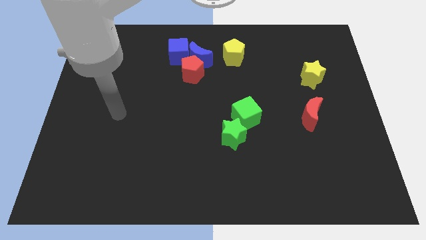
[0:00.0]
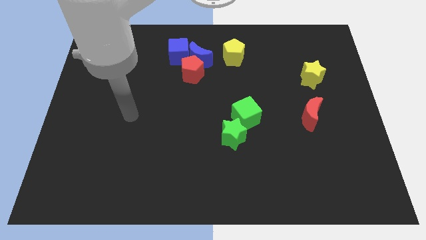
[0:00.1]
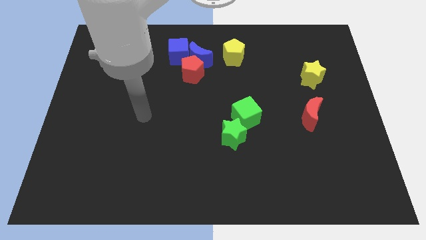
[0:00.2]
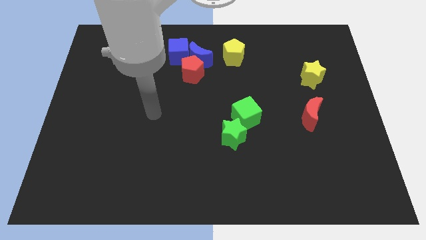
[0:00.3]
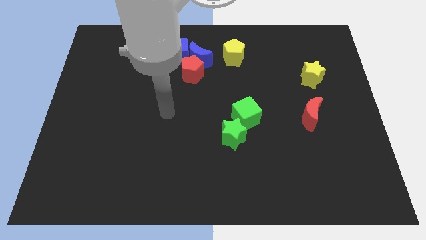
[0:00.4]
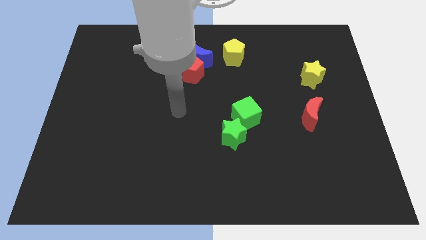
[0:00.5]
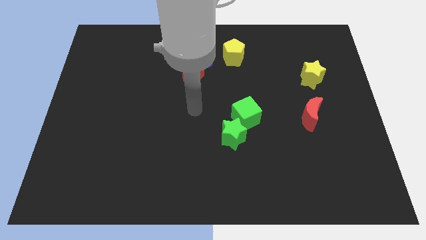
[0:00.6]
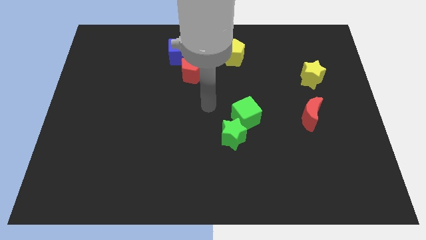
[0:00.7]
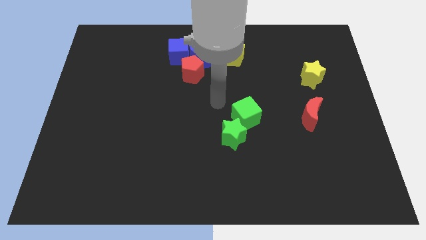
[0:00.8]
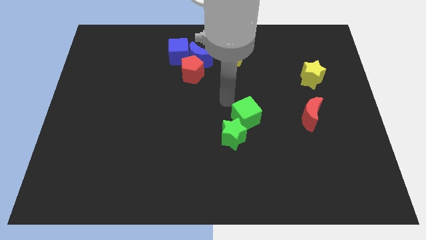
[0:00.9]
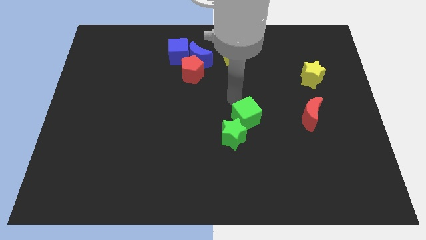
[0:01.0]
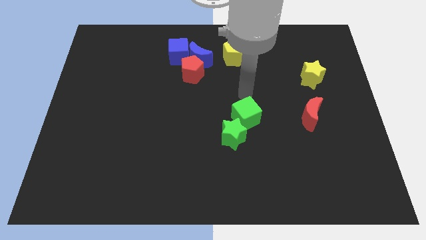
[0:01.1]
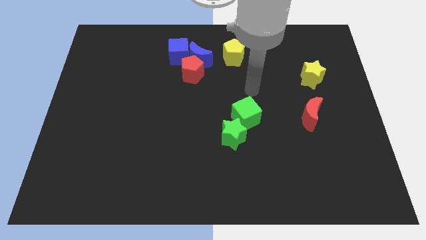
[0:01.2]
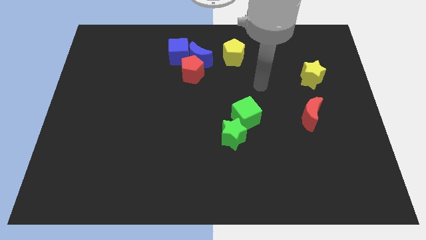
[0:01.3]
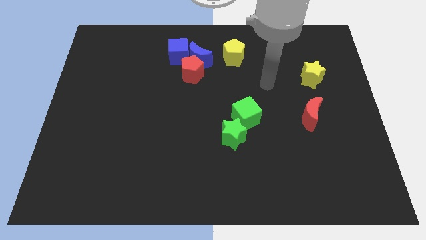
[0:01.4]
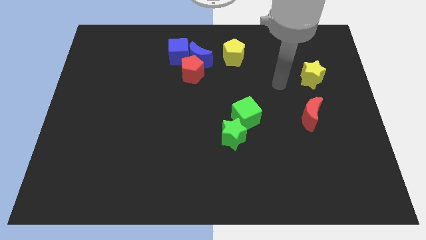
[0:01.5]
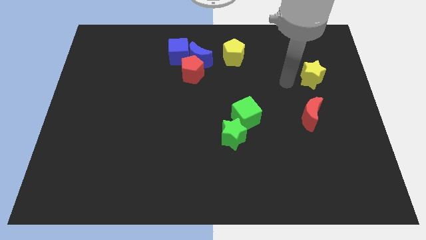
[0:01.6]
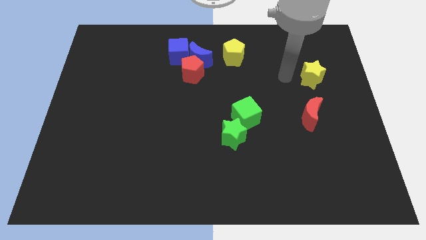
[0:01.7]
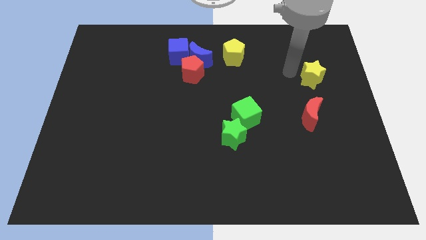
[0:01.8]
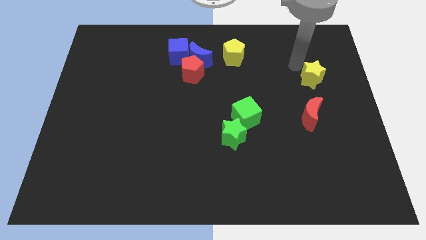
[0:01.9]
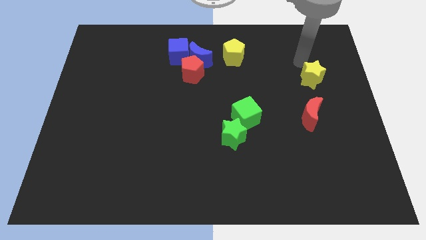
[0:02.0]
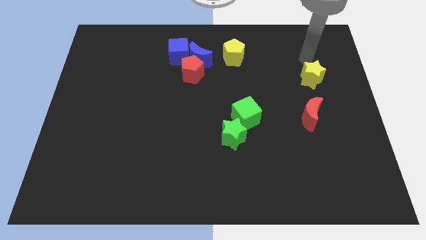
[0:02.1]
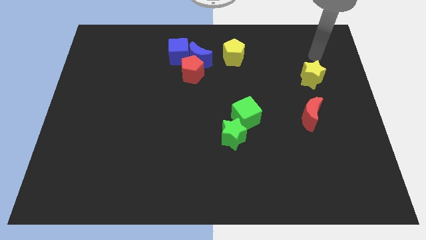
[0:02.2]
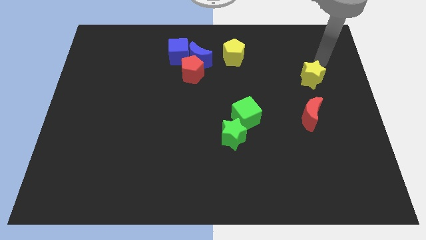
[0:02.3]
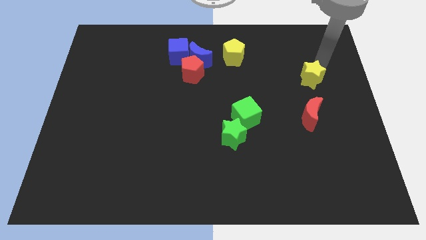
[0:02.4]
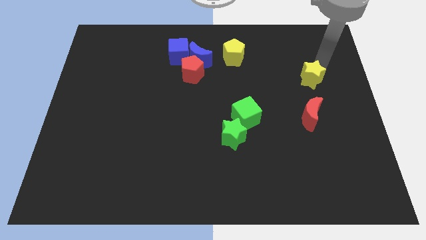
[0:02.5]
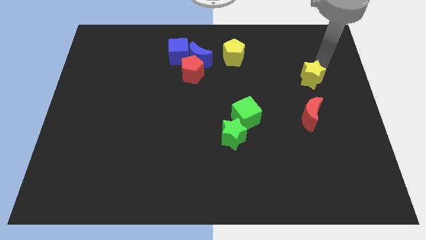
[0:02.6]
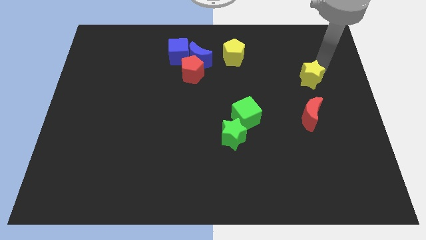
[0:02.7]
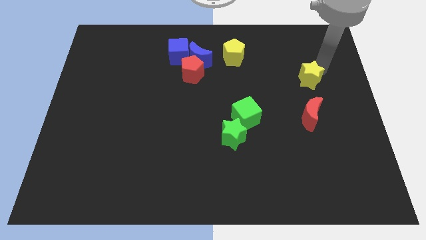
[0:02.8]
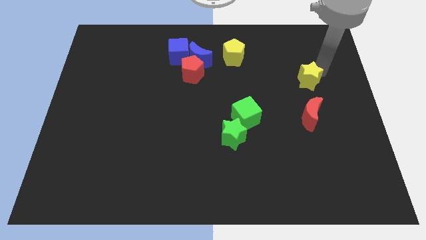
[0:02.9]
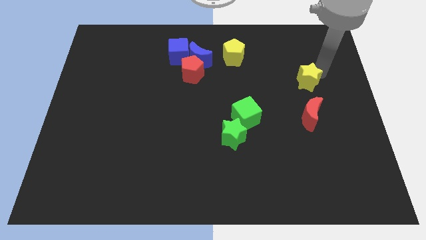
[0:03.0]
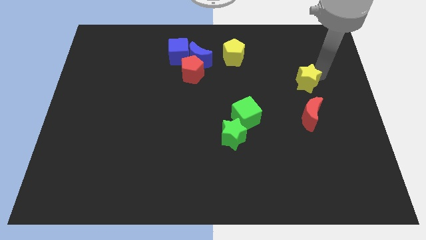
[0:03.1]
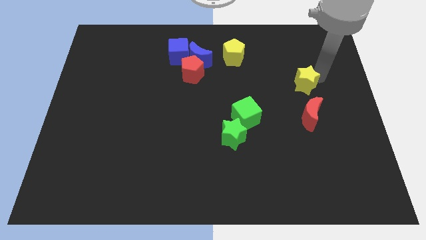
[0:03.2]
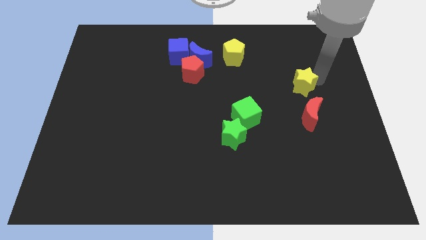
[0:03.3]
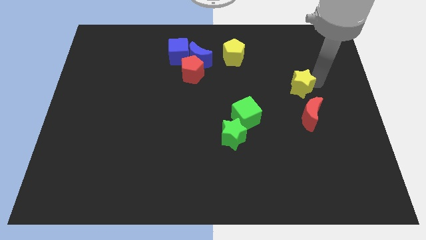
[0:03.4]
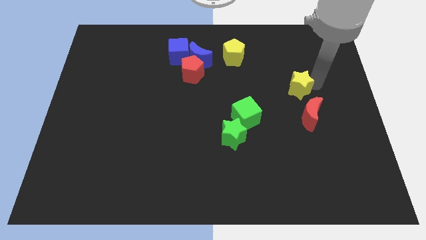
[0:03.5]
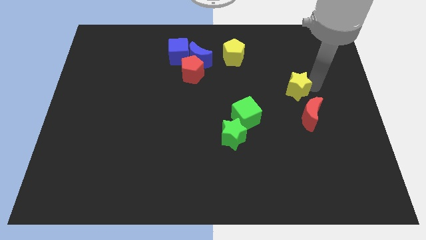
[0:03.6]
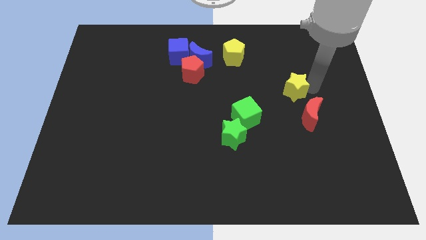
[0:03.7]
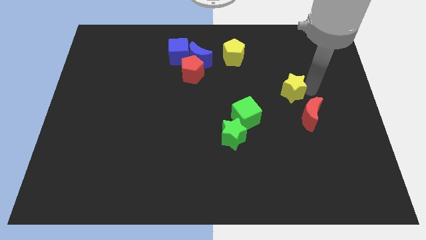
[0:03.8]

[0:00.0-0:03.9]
slide the yellow star a little down and left

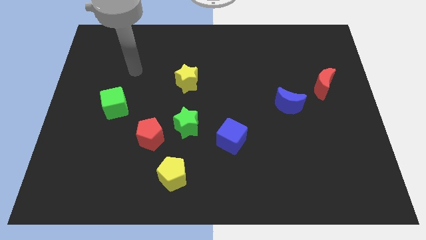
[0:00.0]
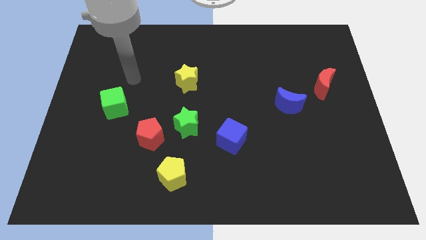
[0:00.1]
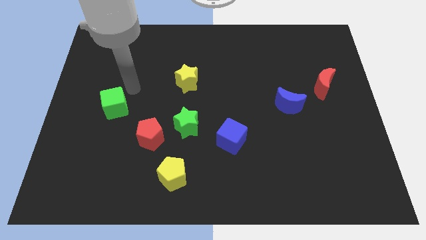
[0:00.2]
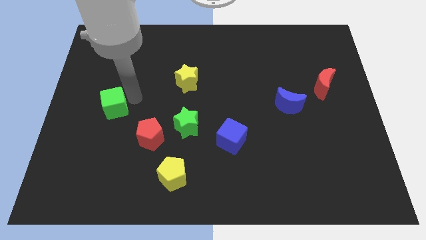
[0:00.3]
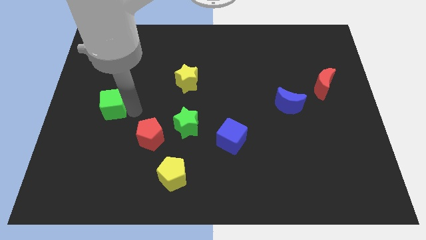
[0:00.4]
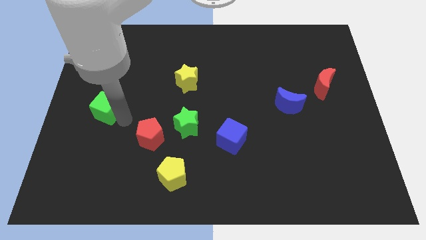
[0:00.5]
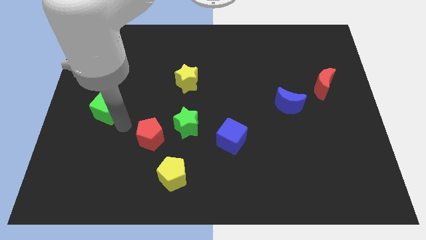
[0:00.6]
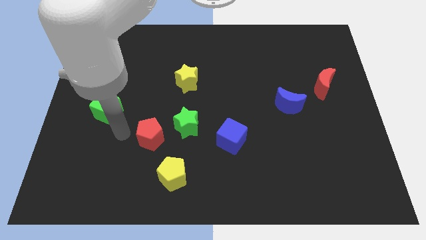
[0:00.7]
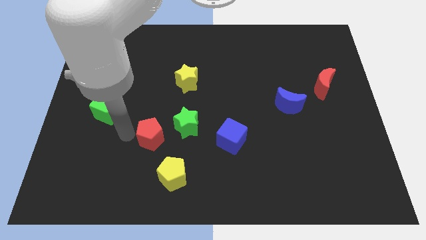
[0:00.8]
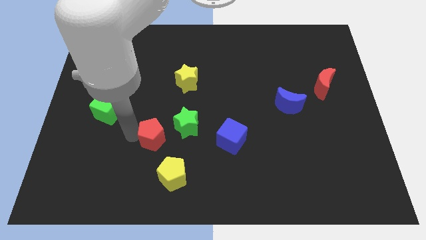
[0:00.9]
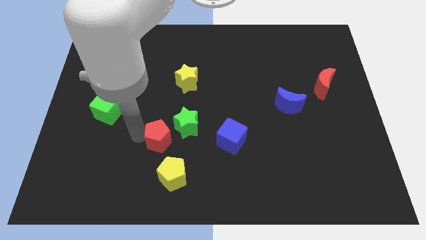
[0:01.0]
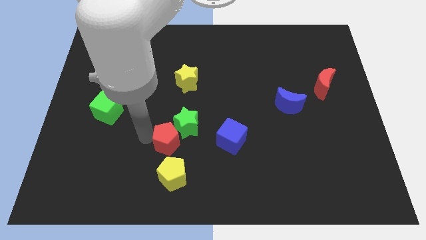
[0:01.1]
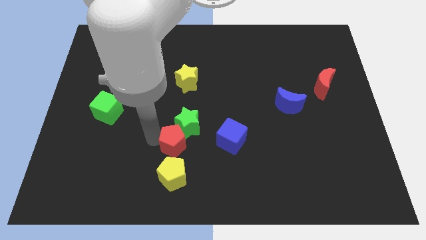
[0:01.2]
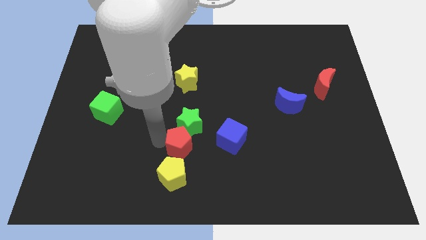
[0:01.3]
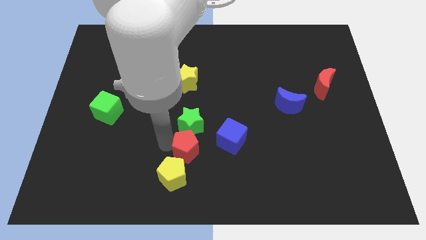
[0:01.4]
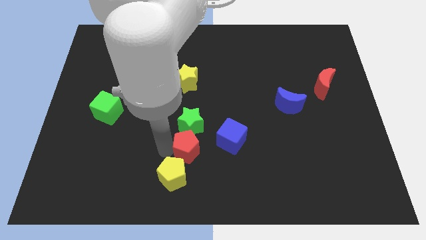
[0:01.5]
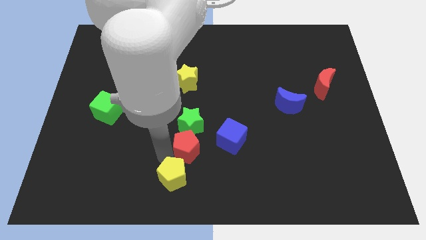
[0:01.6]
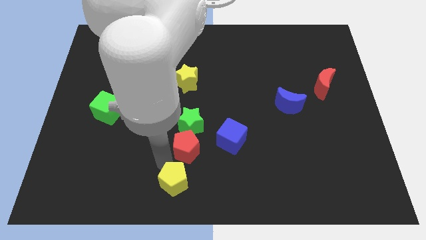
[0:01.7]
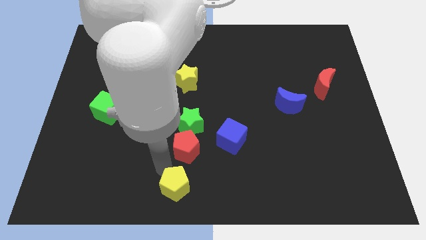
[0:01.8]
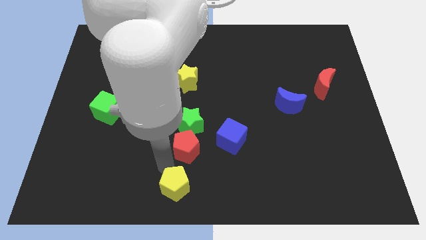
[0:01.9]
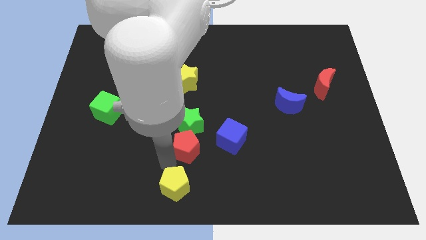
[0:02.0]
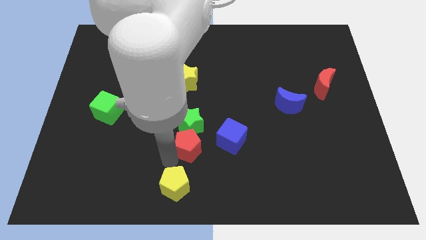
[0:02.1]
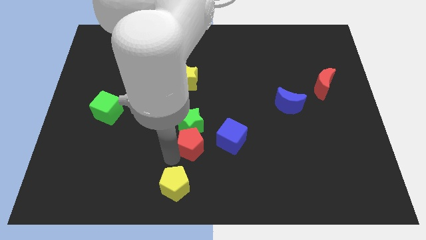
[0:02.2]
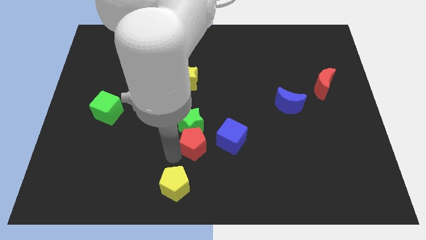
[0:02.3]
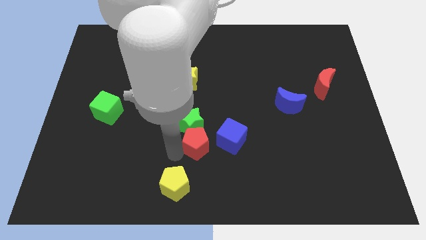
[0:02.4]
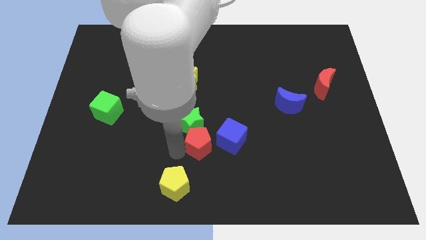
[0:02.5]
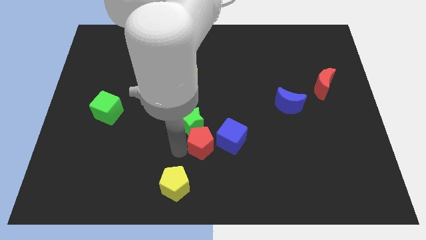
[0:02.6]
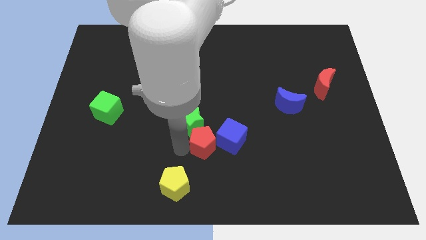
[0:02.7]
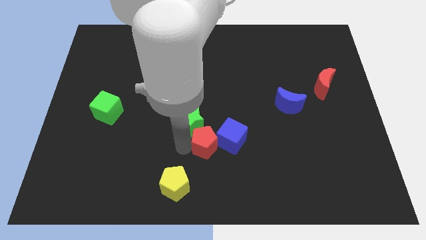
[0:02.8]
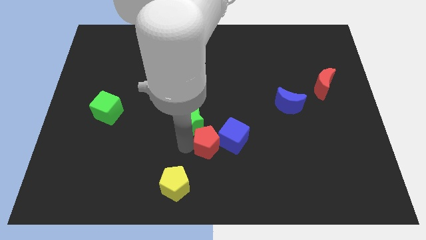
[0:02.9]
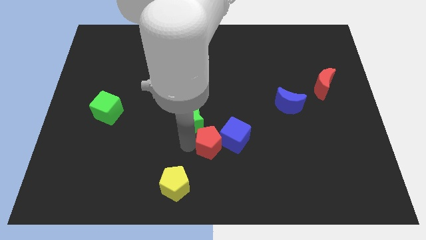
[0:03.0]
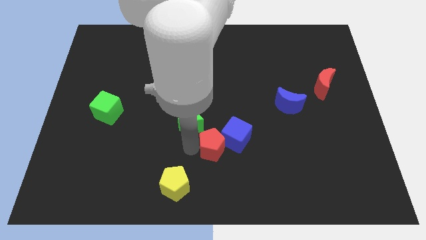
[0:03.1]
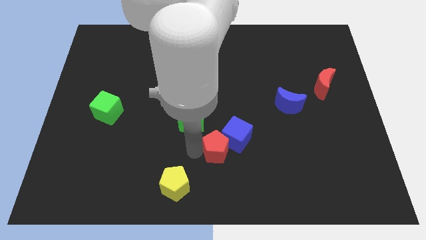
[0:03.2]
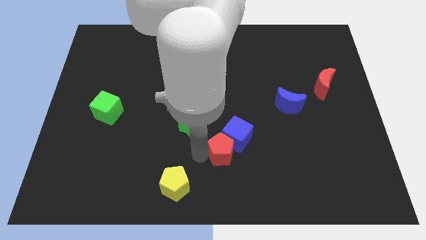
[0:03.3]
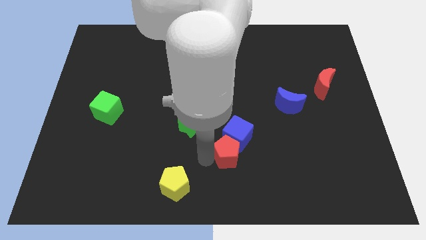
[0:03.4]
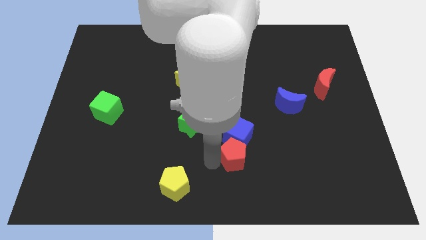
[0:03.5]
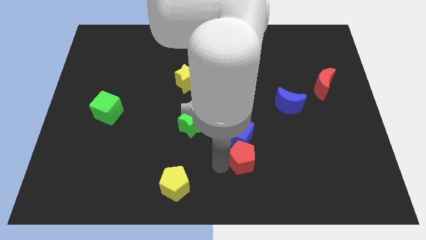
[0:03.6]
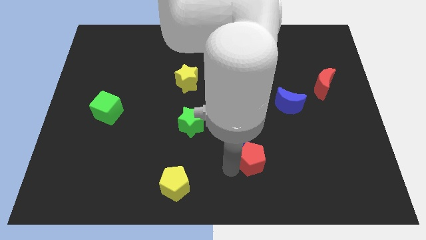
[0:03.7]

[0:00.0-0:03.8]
move the red pentagon to the right
